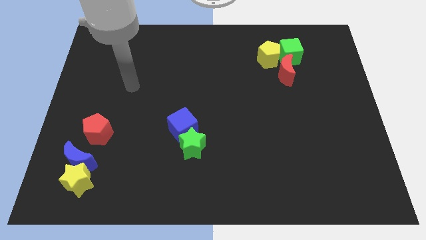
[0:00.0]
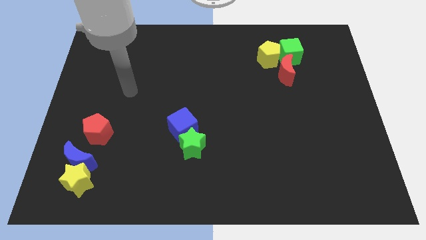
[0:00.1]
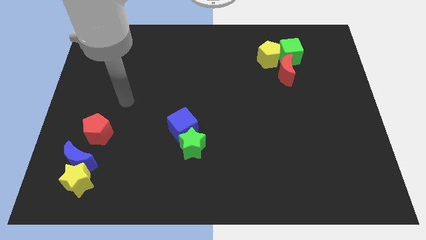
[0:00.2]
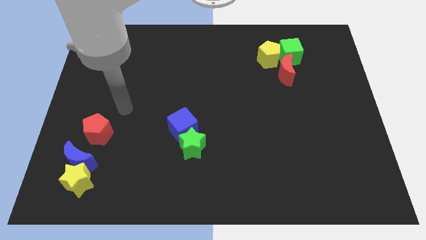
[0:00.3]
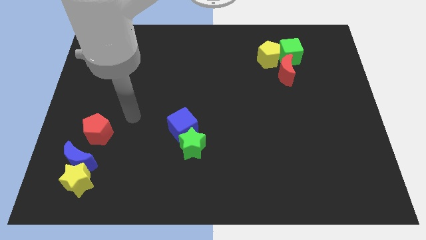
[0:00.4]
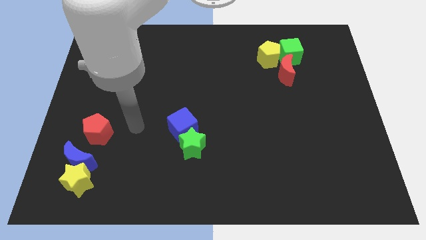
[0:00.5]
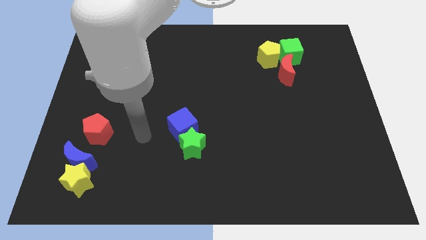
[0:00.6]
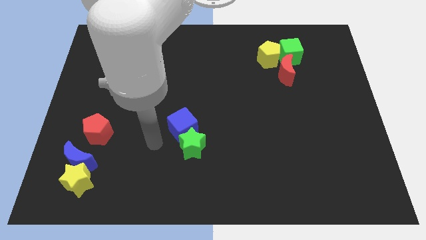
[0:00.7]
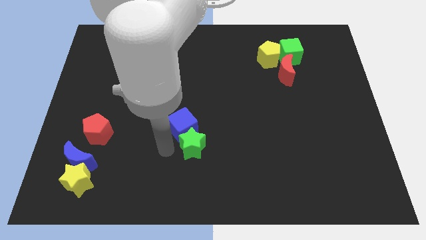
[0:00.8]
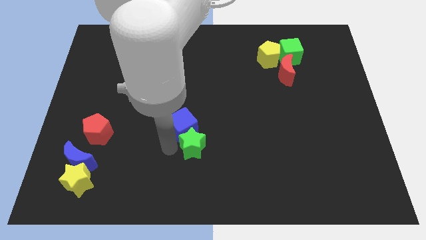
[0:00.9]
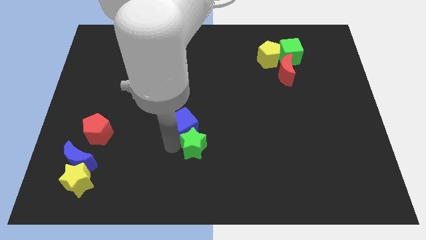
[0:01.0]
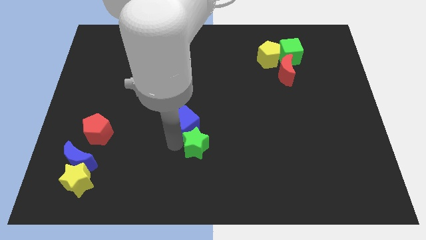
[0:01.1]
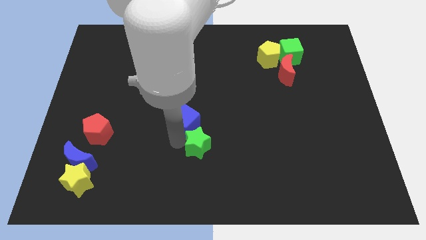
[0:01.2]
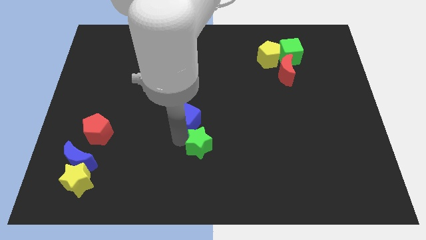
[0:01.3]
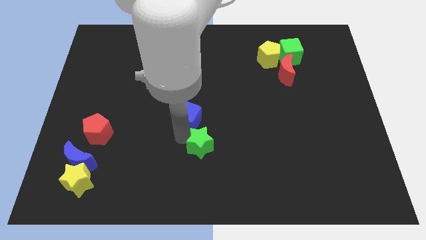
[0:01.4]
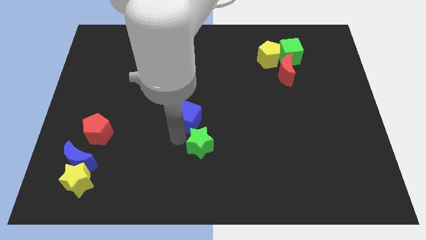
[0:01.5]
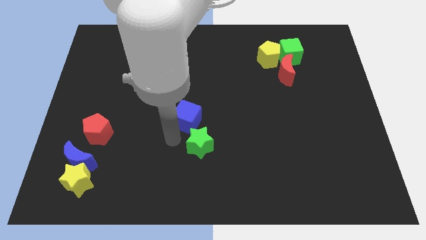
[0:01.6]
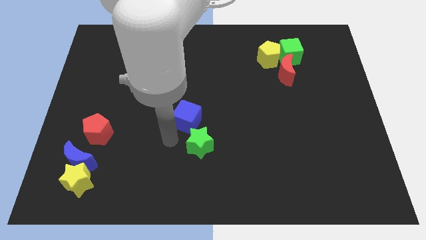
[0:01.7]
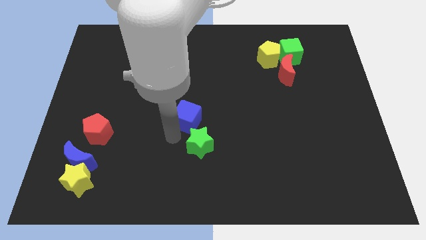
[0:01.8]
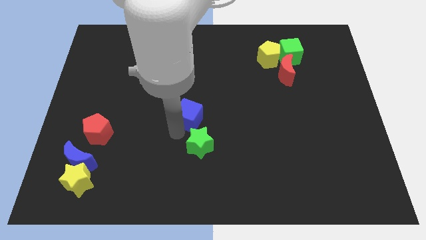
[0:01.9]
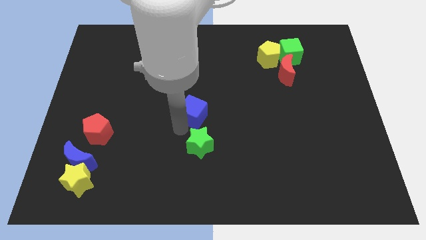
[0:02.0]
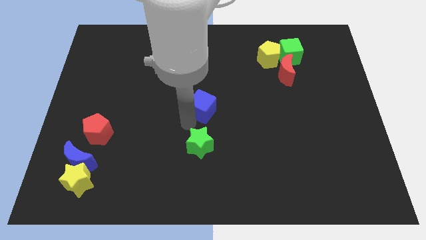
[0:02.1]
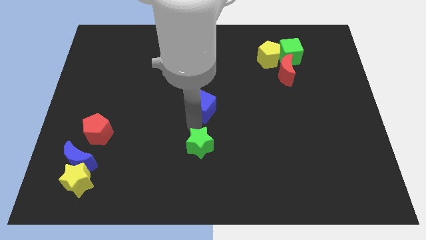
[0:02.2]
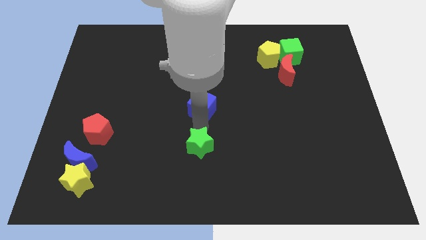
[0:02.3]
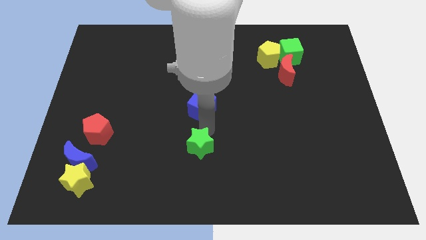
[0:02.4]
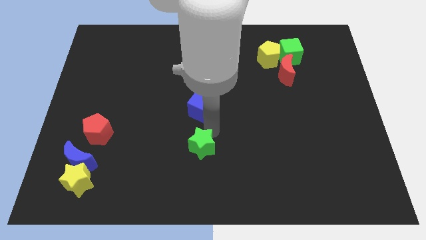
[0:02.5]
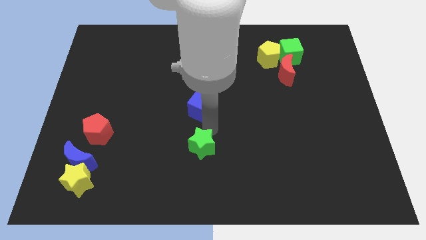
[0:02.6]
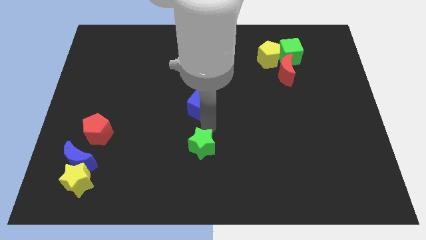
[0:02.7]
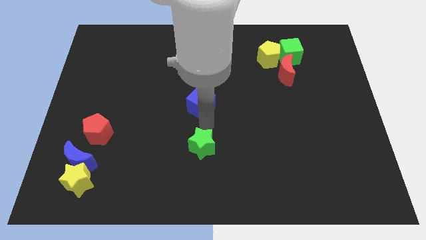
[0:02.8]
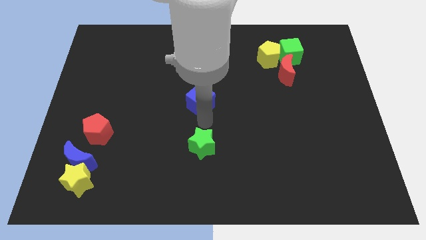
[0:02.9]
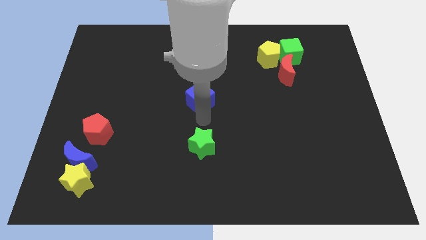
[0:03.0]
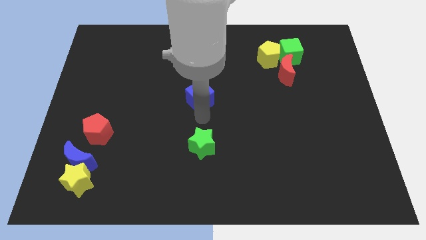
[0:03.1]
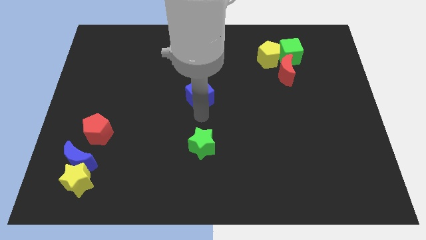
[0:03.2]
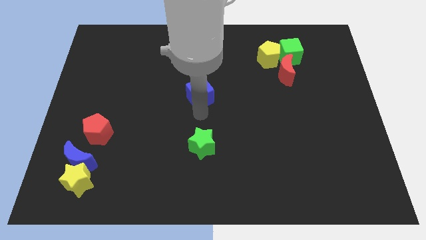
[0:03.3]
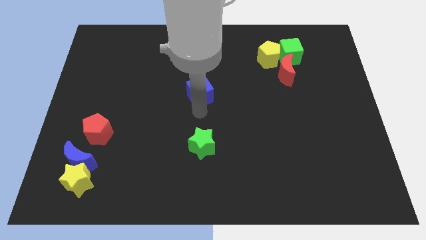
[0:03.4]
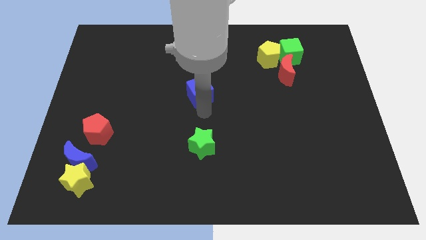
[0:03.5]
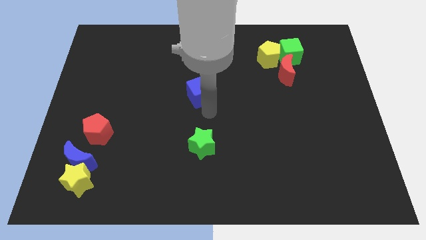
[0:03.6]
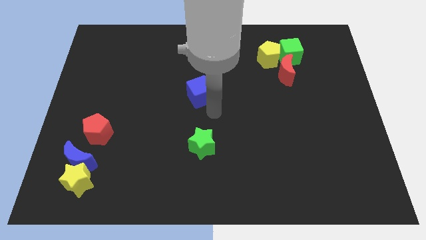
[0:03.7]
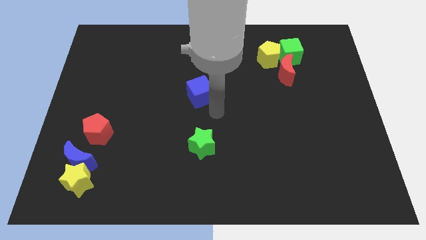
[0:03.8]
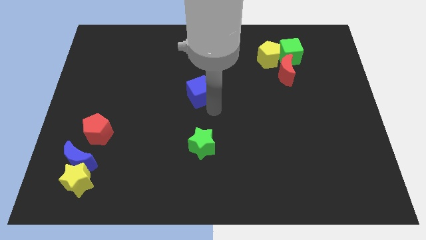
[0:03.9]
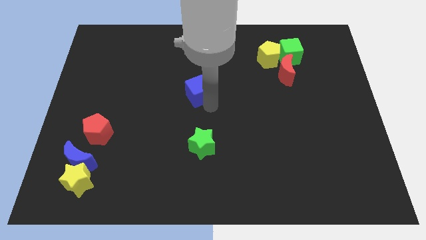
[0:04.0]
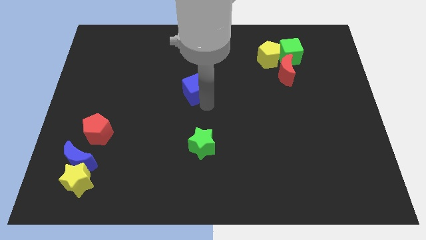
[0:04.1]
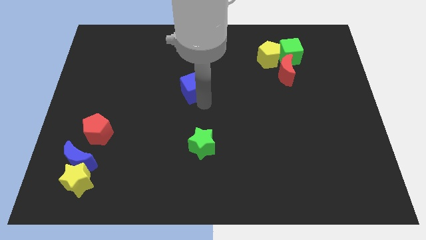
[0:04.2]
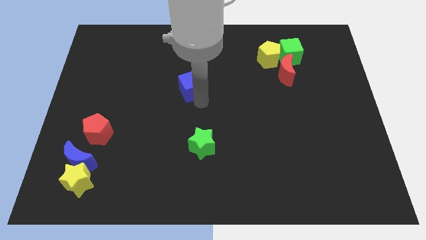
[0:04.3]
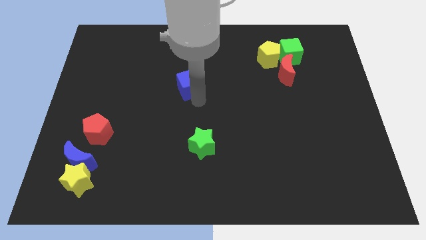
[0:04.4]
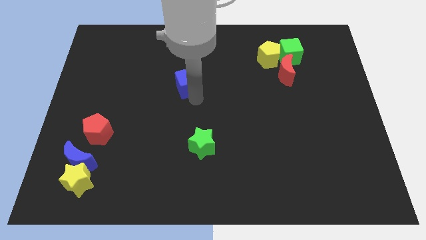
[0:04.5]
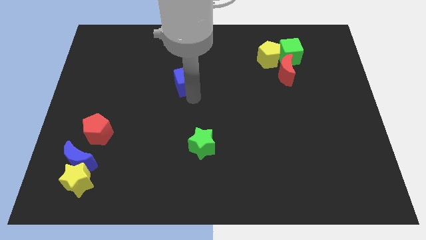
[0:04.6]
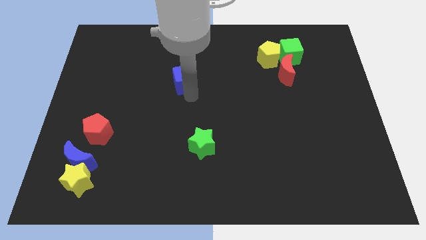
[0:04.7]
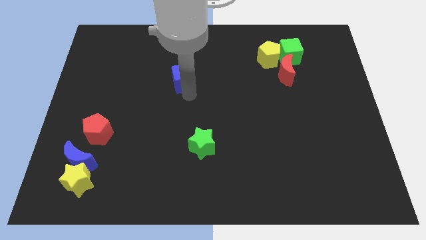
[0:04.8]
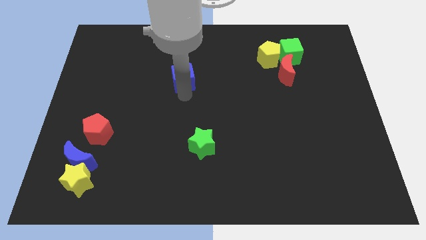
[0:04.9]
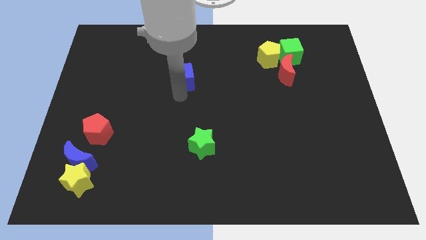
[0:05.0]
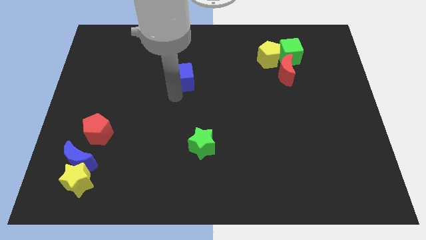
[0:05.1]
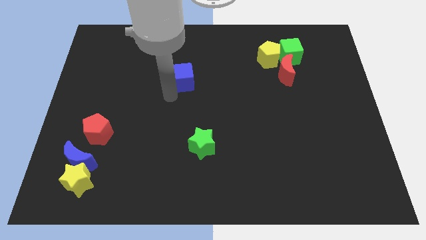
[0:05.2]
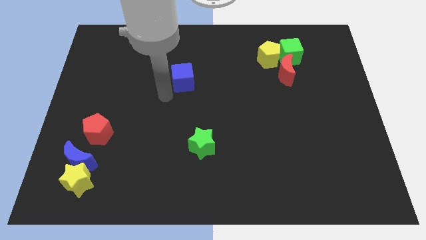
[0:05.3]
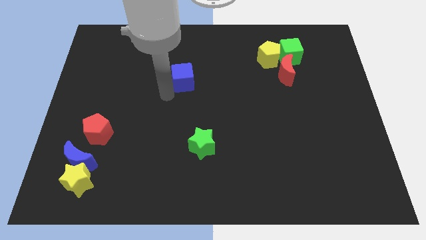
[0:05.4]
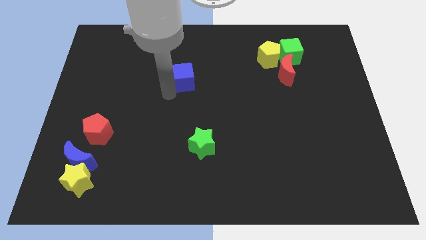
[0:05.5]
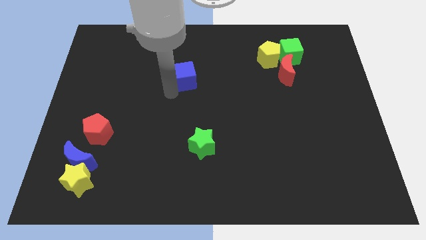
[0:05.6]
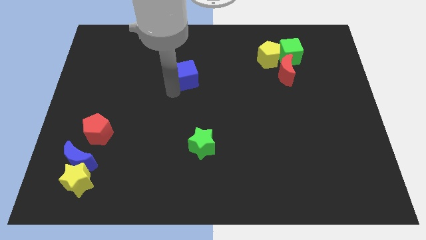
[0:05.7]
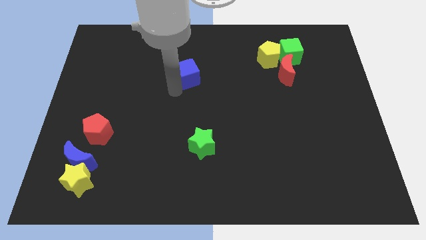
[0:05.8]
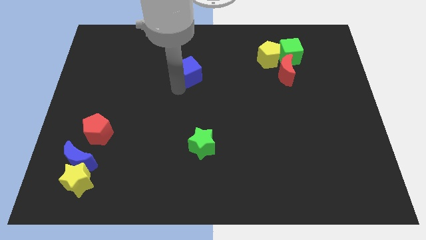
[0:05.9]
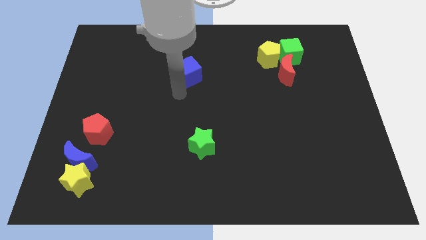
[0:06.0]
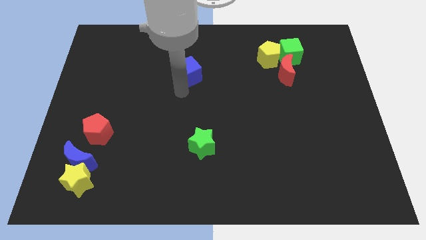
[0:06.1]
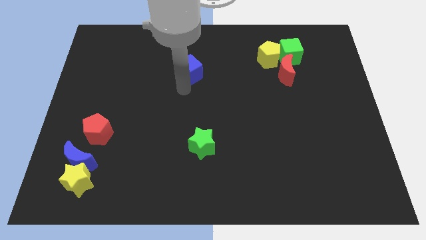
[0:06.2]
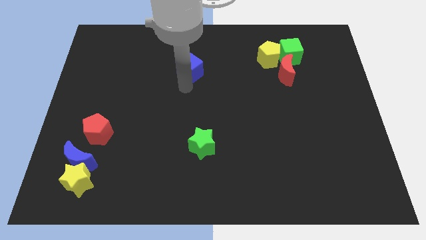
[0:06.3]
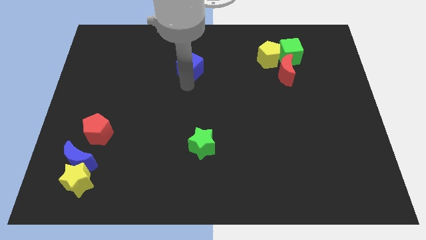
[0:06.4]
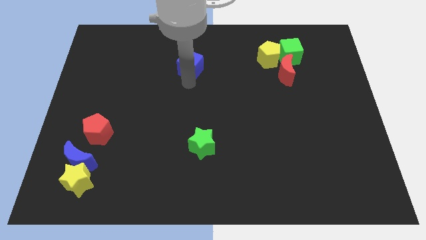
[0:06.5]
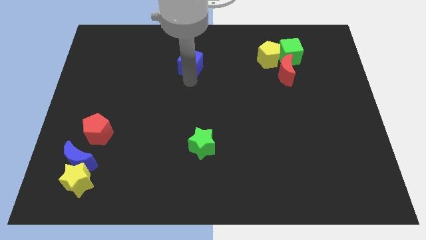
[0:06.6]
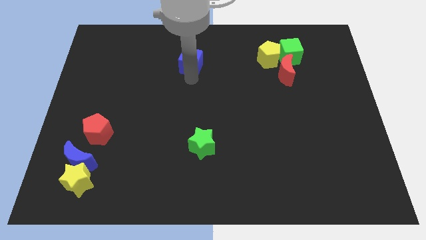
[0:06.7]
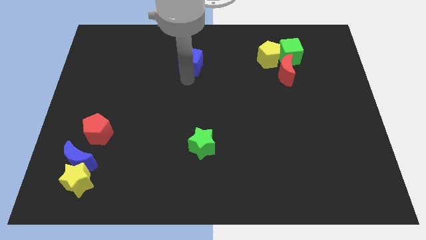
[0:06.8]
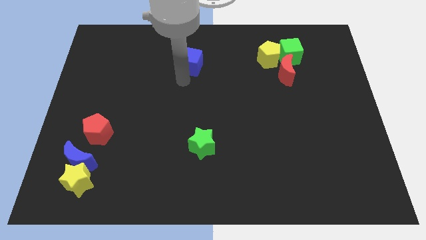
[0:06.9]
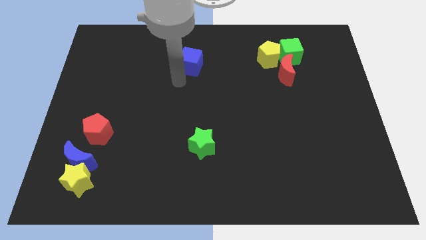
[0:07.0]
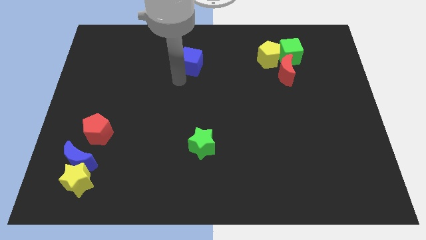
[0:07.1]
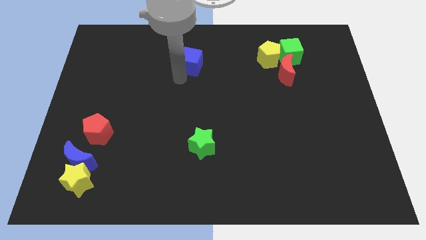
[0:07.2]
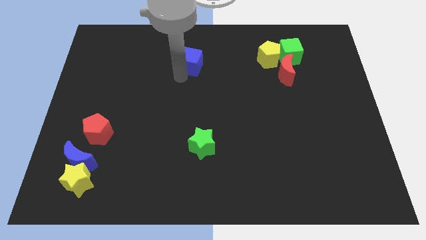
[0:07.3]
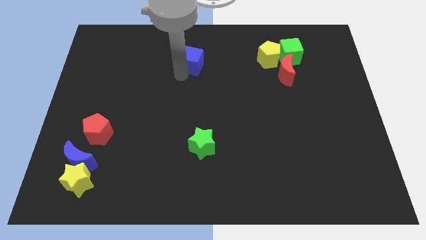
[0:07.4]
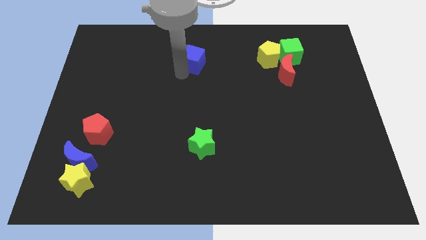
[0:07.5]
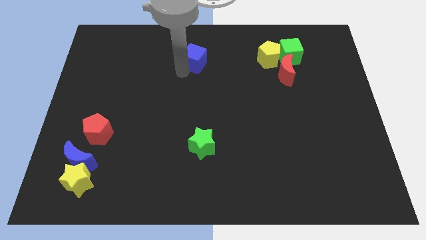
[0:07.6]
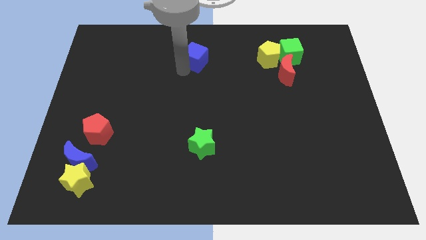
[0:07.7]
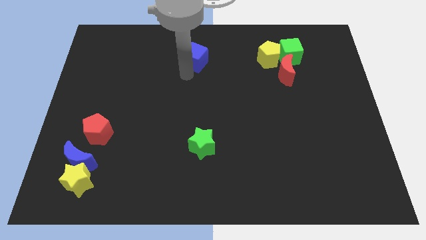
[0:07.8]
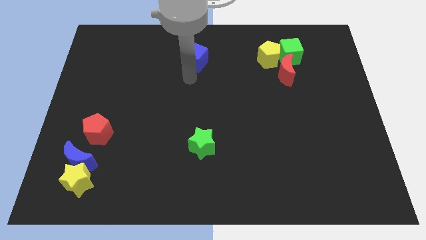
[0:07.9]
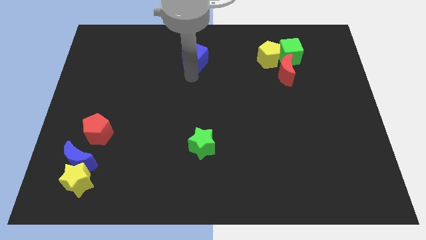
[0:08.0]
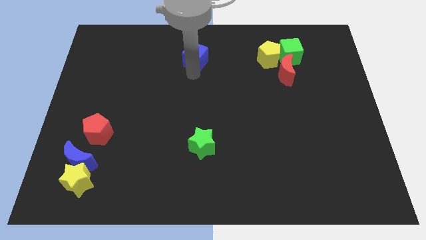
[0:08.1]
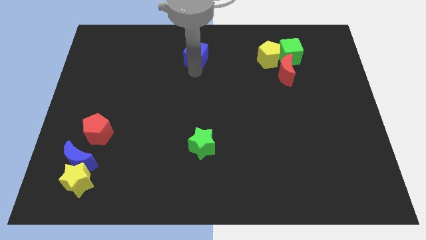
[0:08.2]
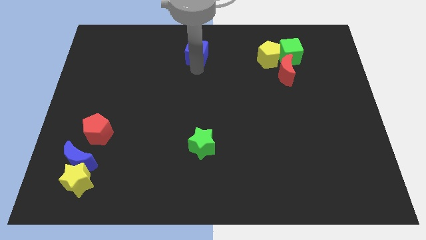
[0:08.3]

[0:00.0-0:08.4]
put the blue cube to the top side
